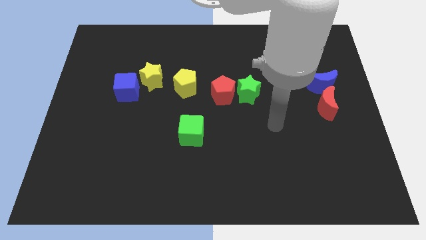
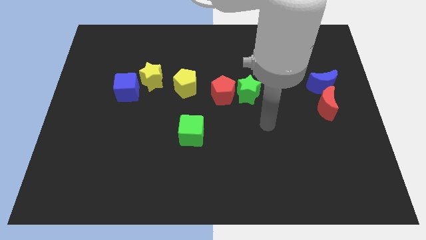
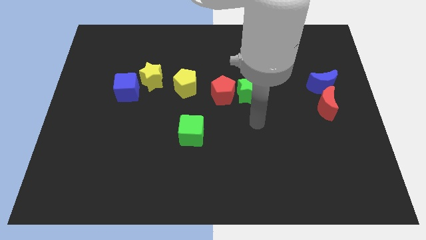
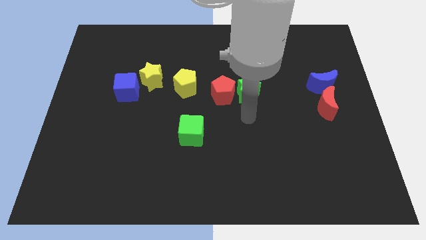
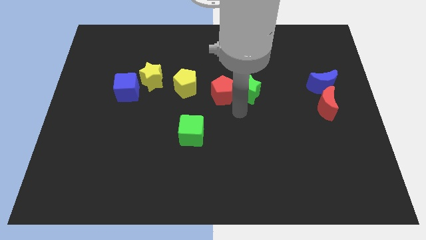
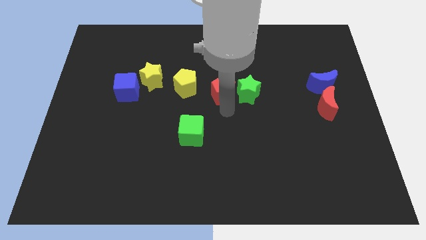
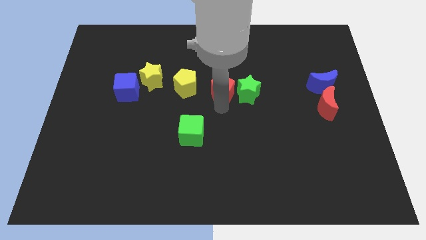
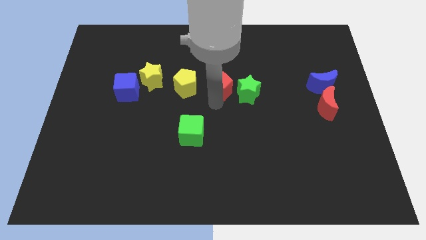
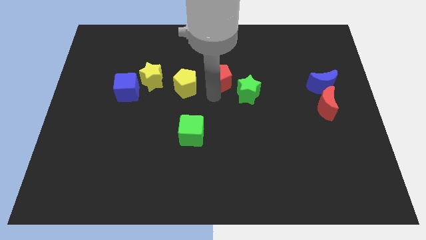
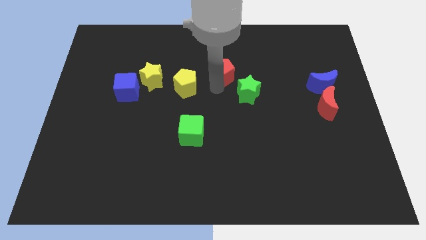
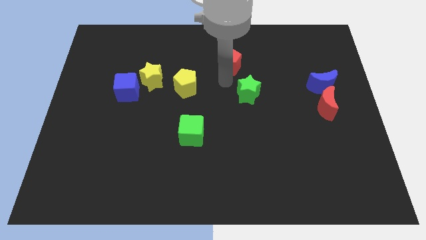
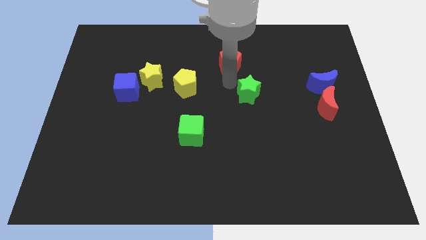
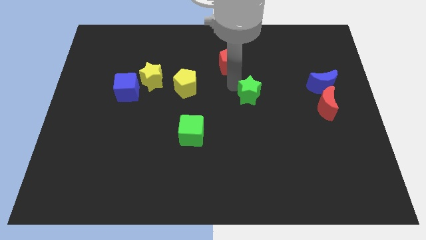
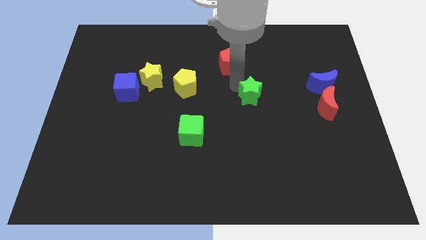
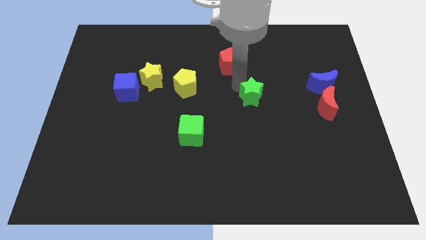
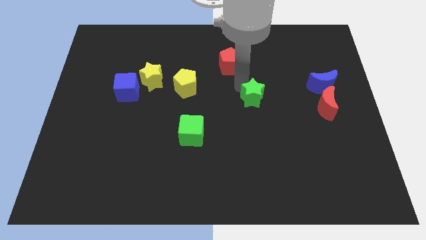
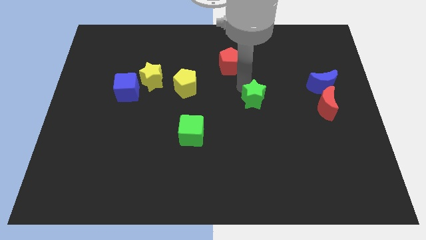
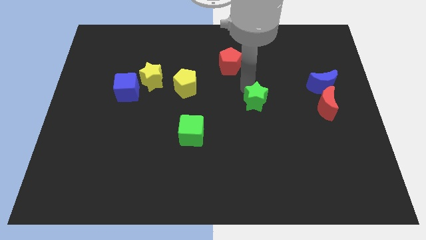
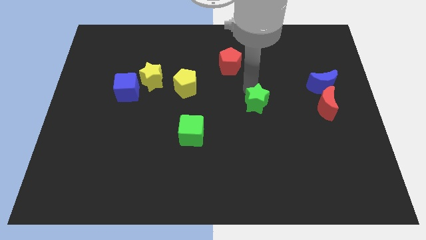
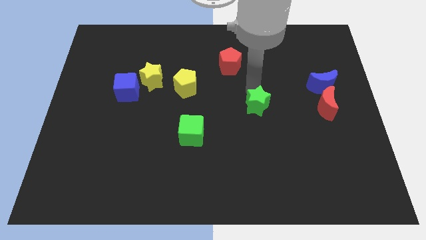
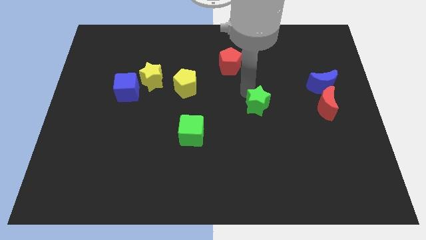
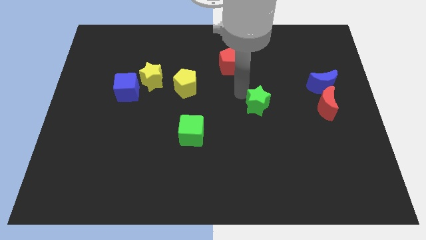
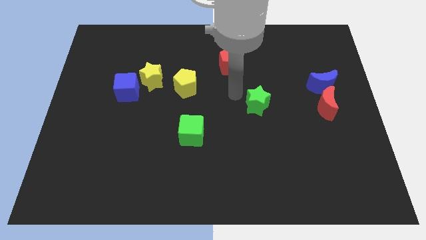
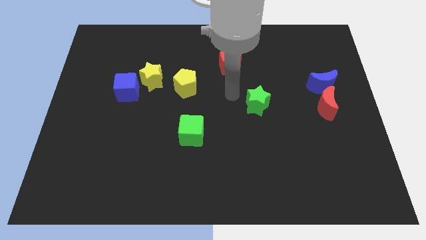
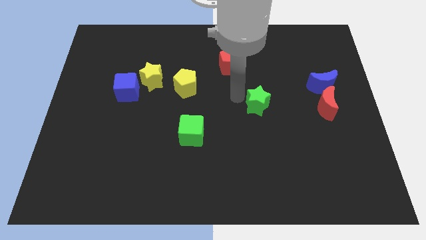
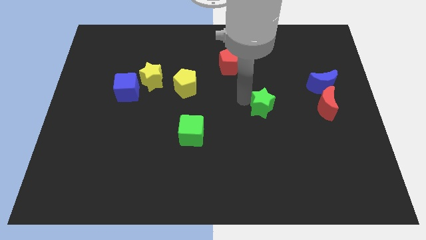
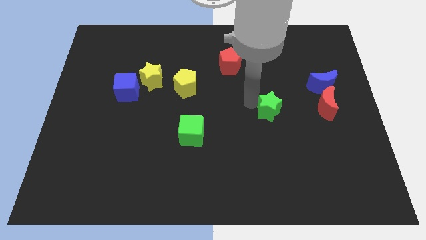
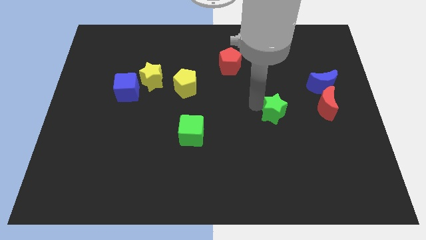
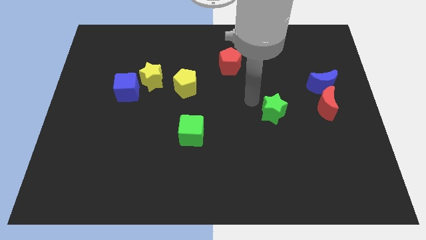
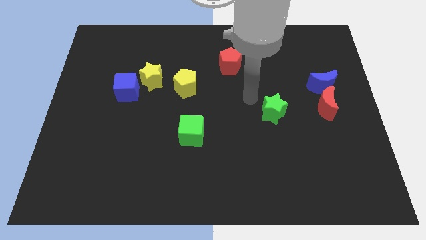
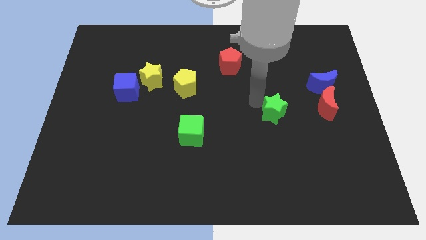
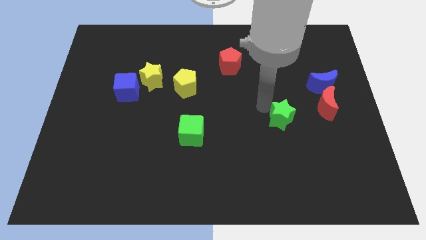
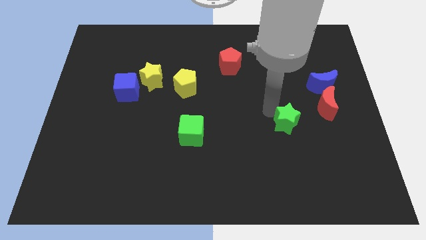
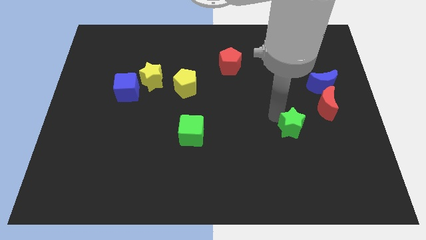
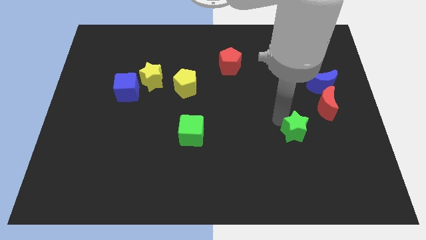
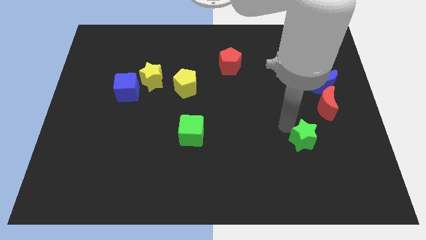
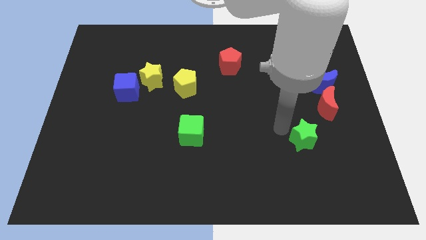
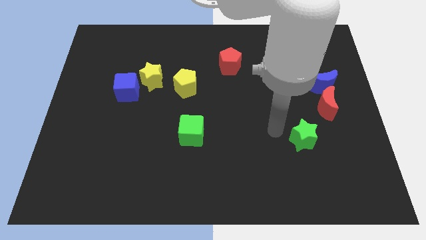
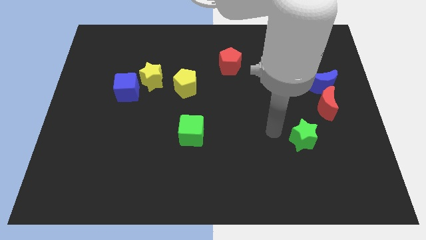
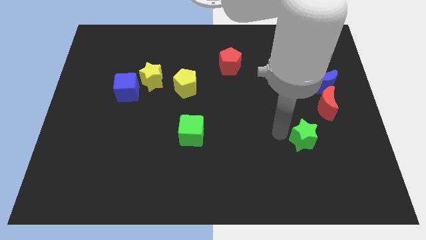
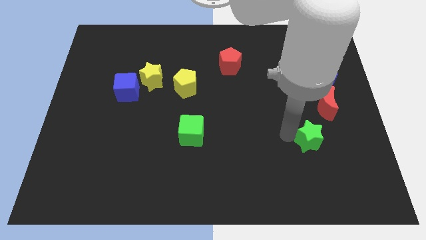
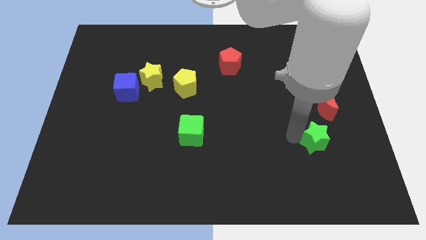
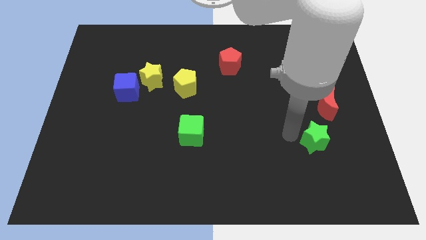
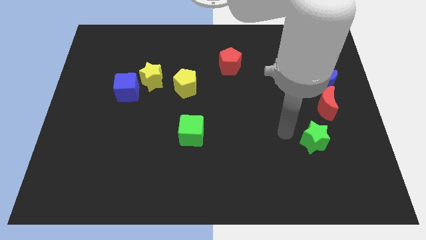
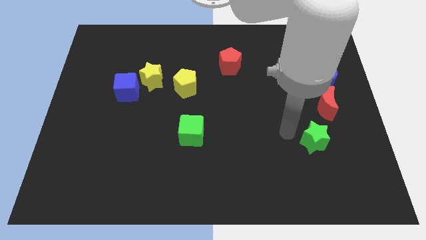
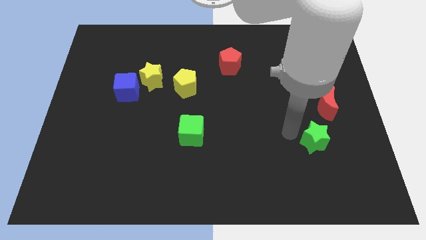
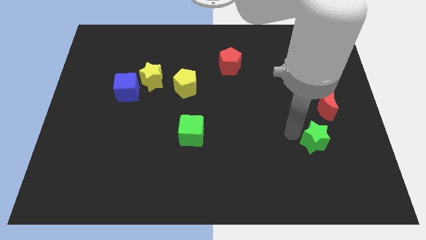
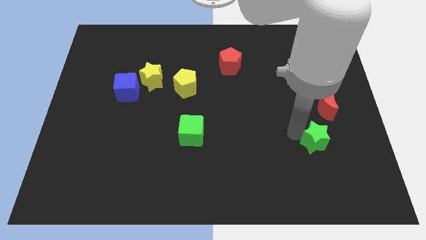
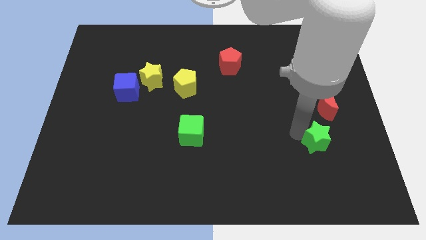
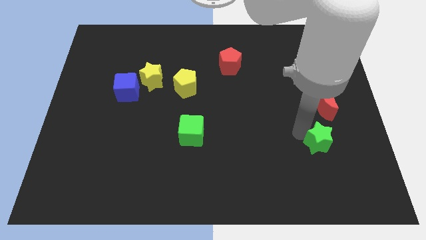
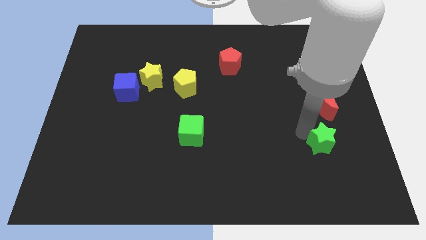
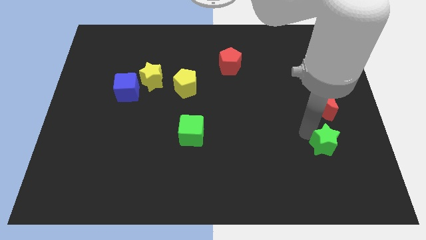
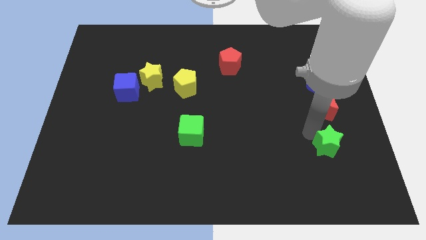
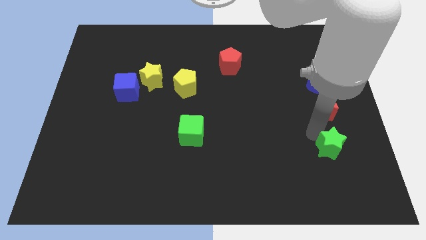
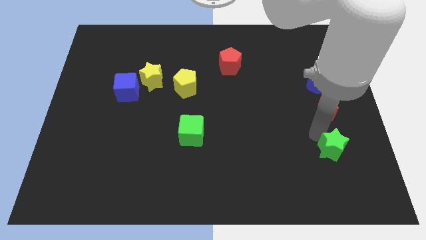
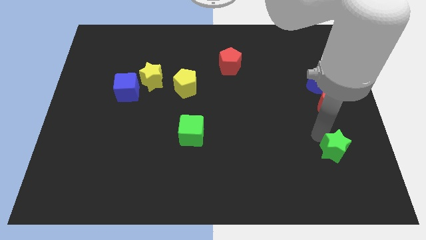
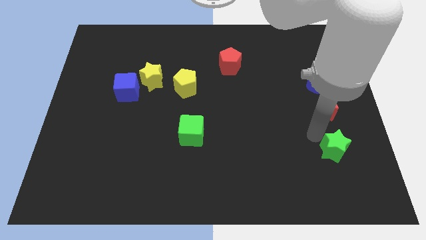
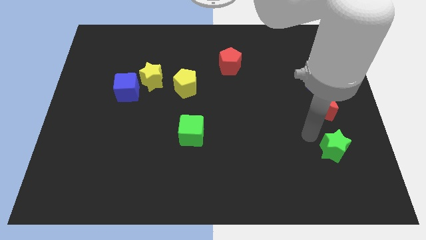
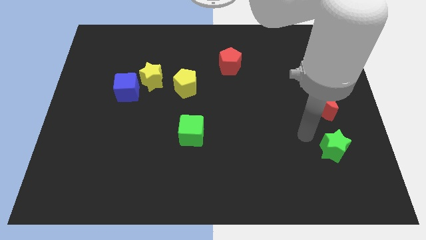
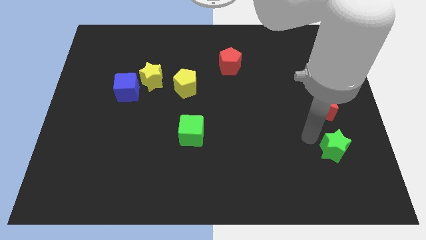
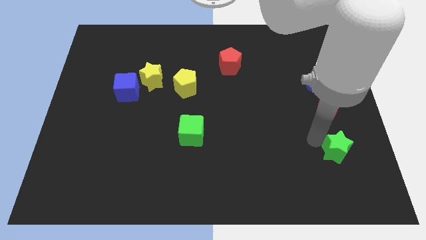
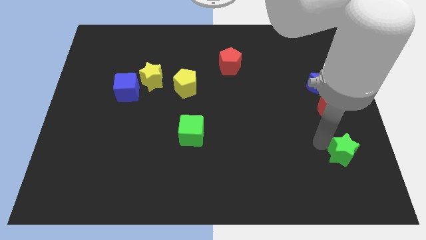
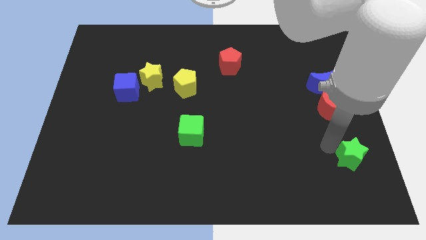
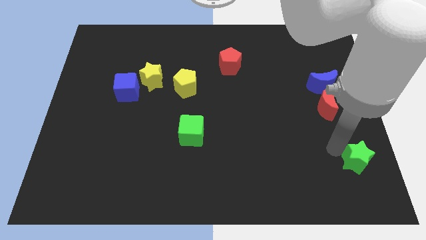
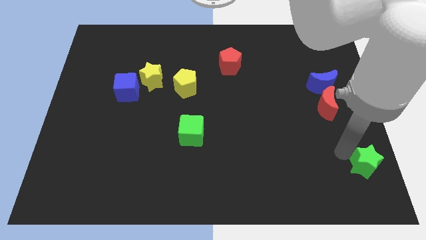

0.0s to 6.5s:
push the green star to the lower right corner
